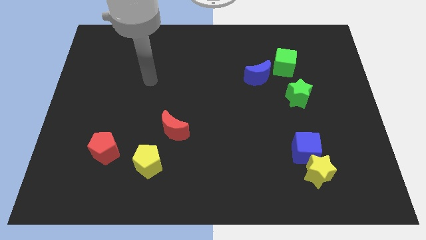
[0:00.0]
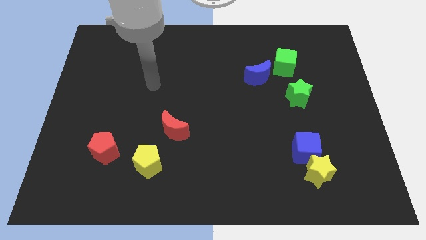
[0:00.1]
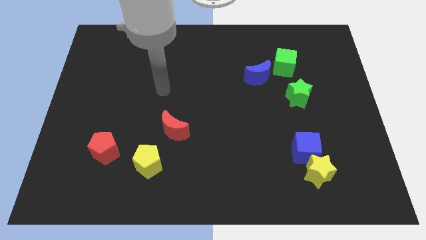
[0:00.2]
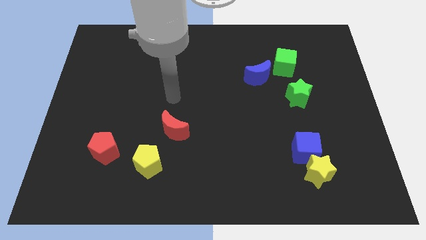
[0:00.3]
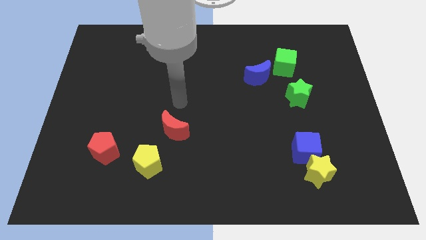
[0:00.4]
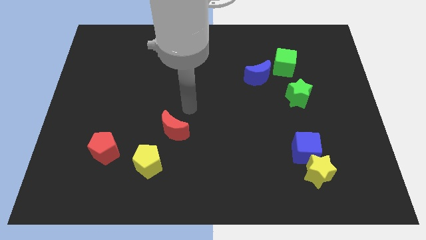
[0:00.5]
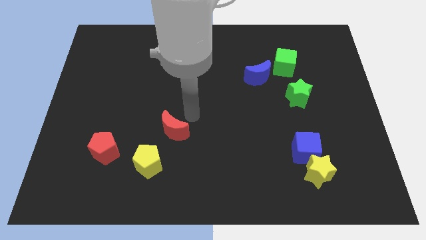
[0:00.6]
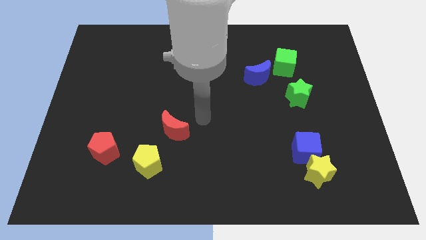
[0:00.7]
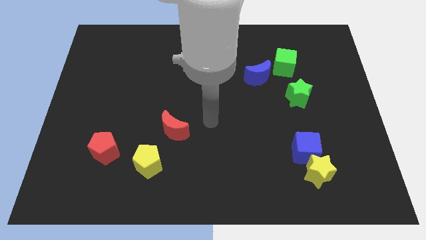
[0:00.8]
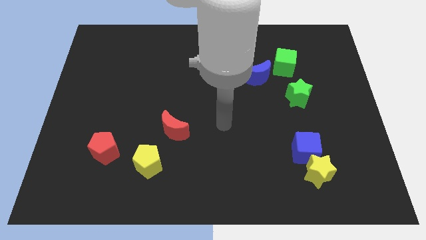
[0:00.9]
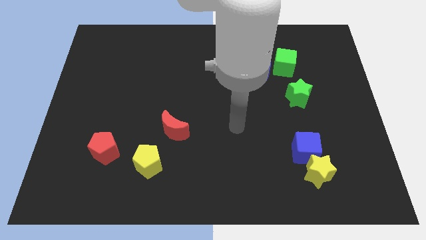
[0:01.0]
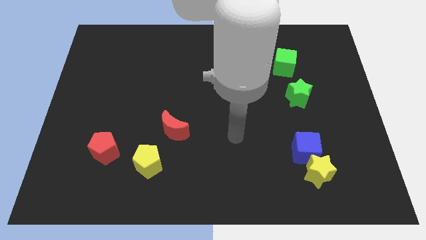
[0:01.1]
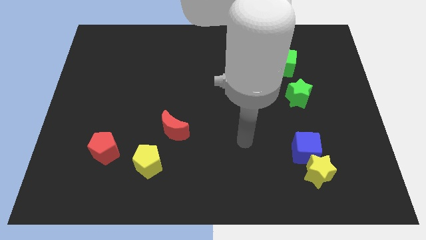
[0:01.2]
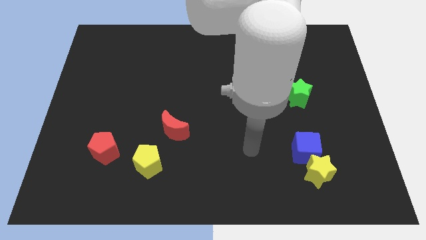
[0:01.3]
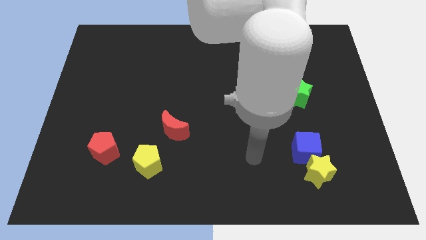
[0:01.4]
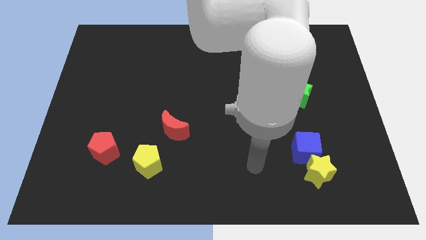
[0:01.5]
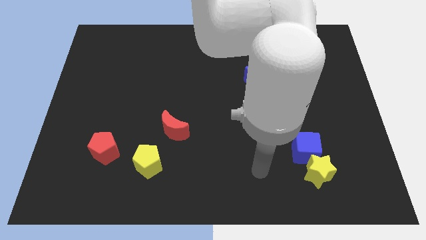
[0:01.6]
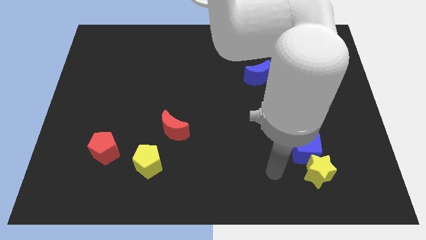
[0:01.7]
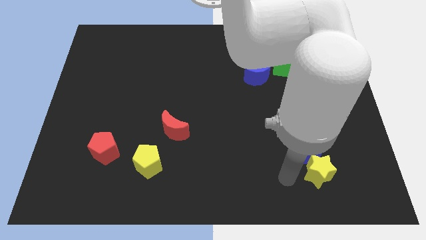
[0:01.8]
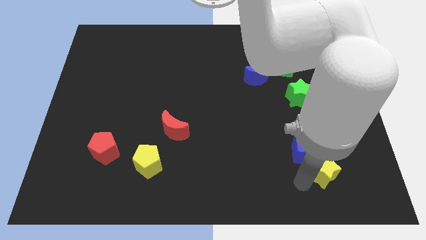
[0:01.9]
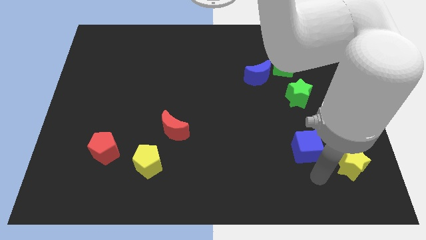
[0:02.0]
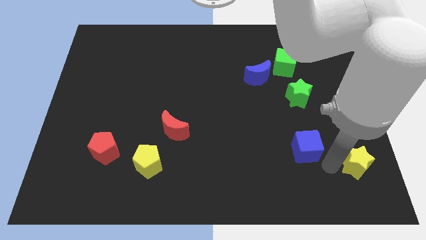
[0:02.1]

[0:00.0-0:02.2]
pull the blue cube apart from the yellow star

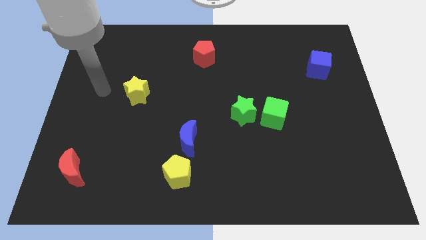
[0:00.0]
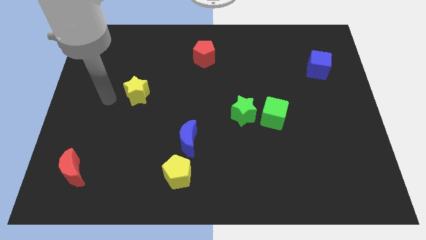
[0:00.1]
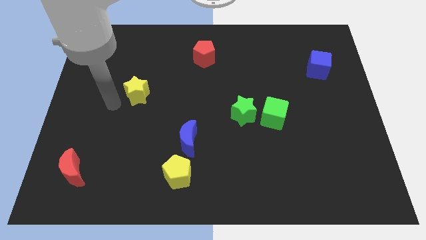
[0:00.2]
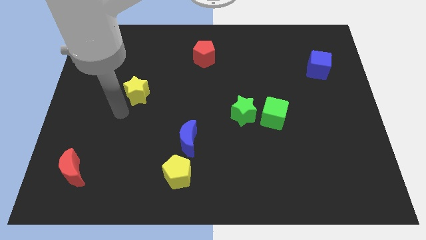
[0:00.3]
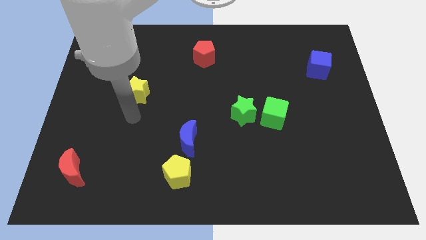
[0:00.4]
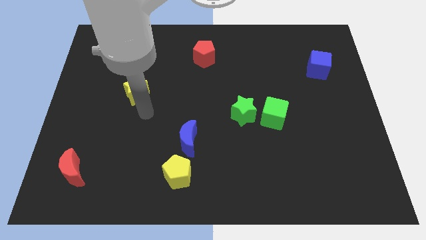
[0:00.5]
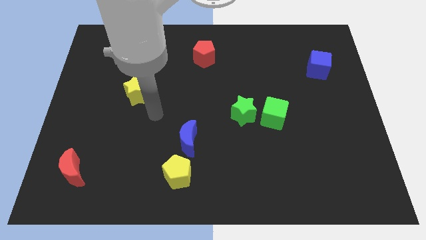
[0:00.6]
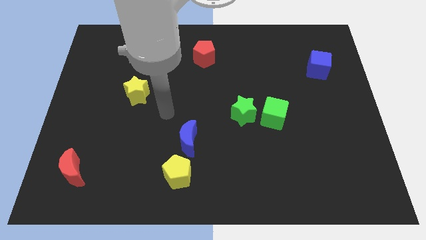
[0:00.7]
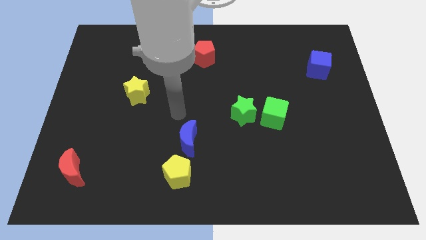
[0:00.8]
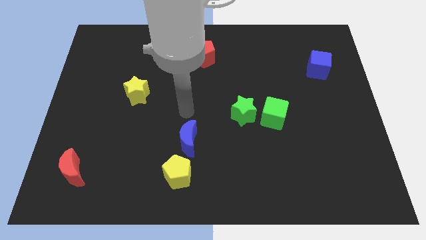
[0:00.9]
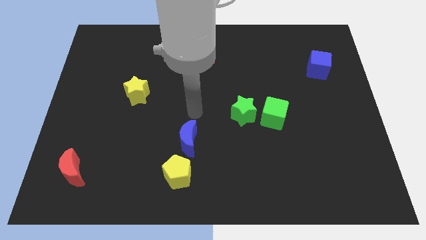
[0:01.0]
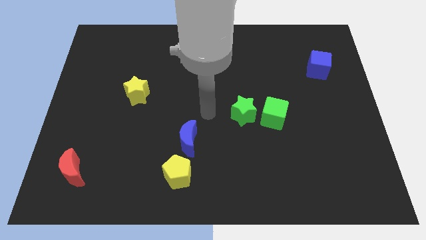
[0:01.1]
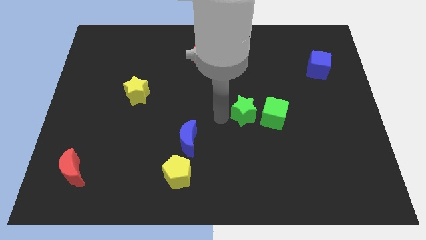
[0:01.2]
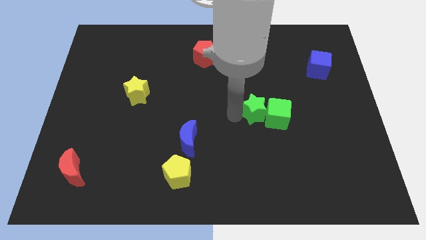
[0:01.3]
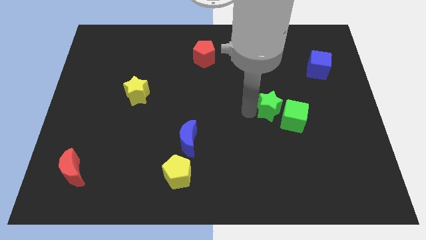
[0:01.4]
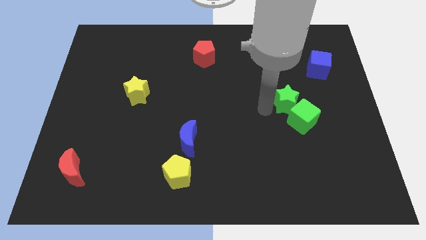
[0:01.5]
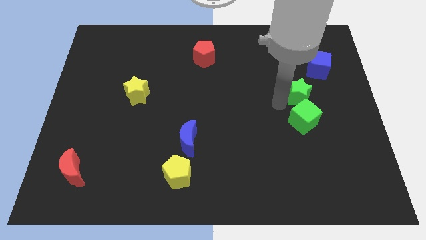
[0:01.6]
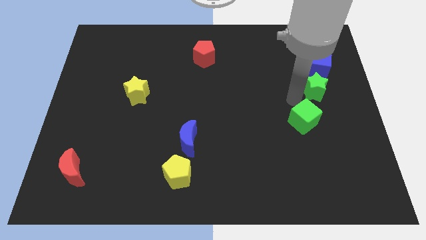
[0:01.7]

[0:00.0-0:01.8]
move the green cube away from the green star

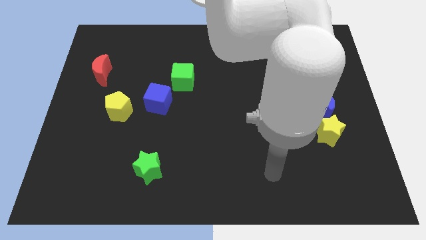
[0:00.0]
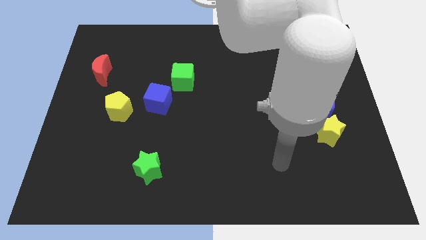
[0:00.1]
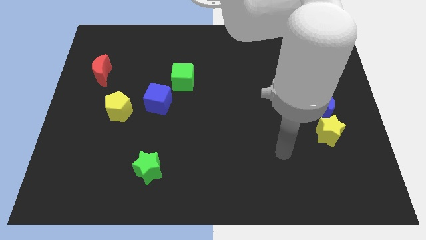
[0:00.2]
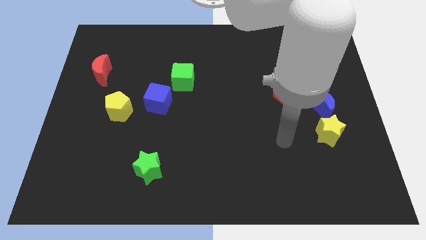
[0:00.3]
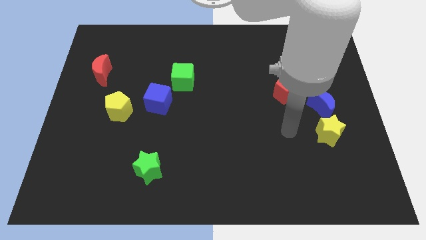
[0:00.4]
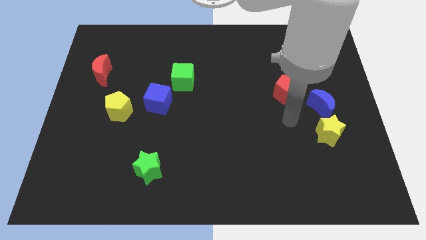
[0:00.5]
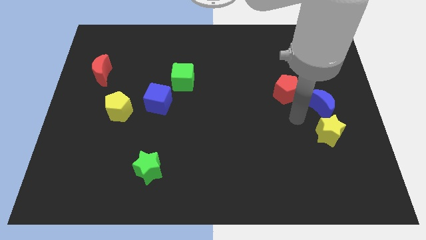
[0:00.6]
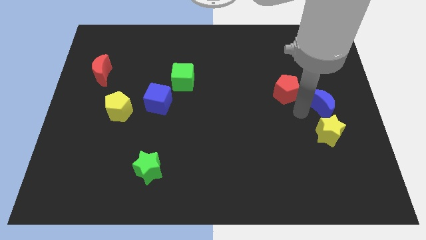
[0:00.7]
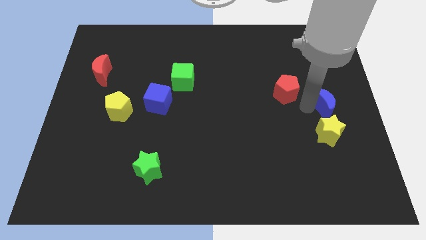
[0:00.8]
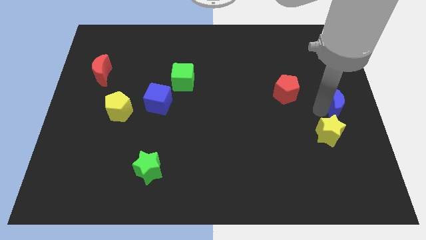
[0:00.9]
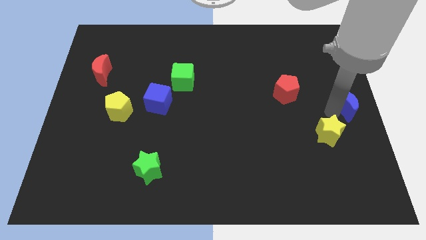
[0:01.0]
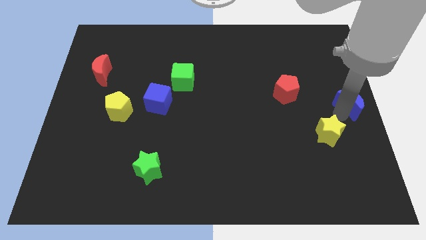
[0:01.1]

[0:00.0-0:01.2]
separate the yellow star from the blue moon

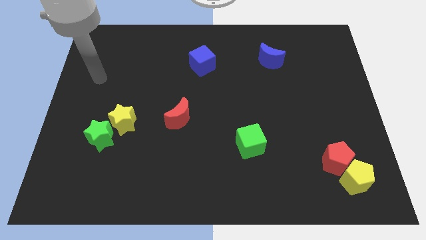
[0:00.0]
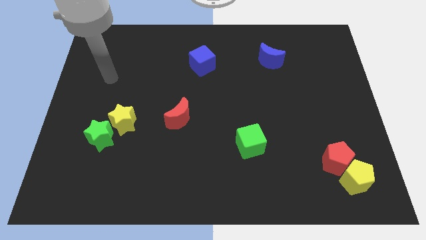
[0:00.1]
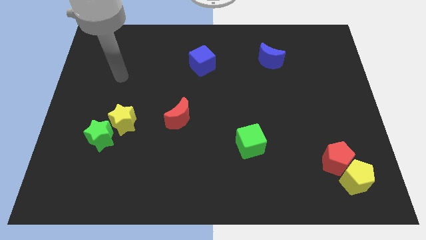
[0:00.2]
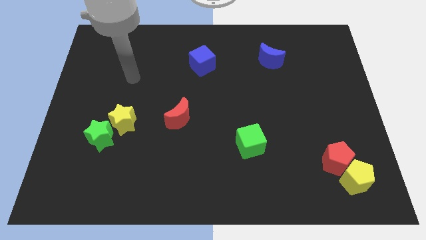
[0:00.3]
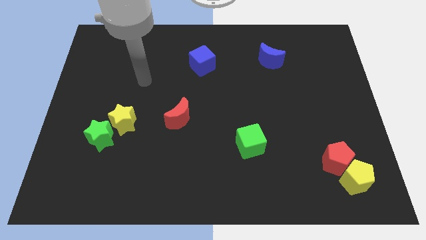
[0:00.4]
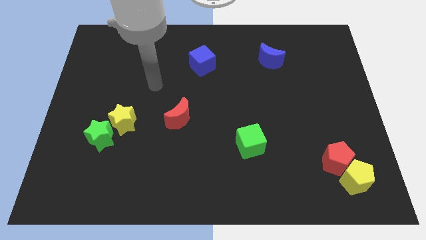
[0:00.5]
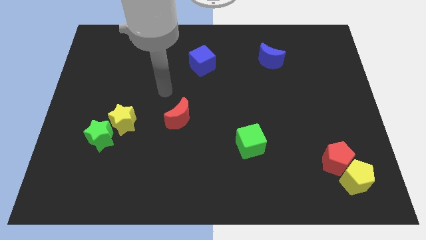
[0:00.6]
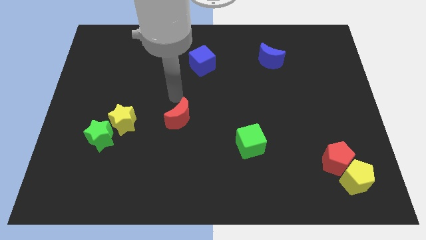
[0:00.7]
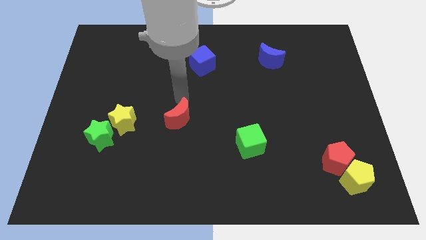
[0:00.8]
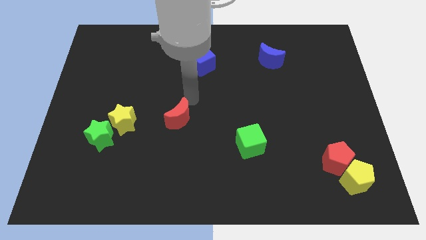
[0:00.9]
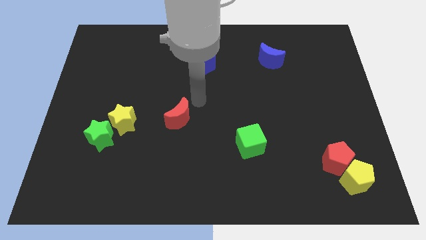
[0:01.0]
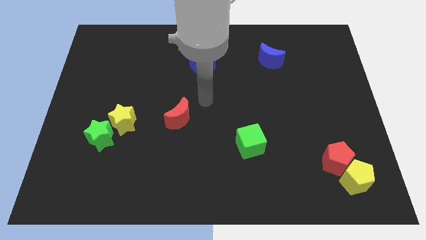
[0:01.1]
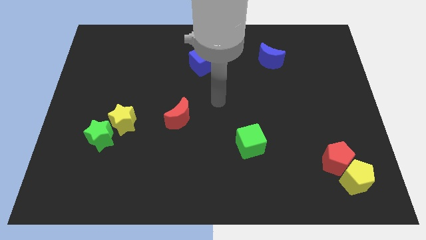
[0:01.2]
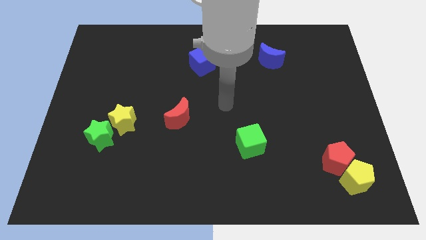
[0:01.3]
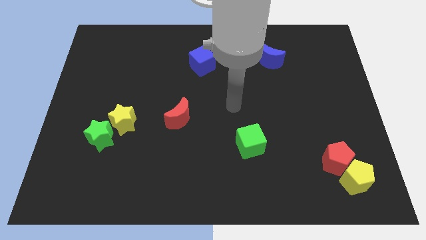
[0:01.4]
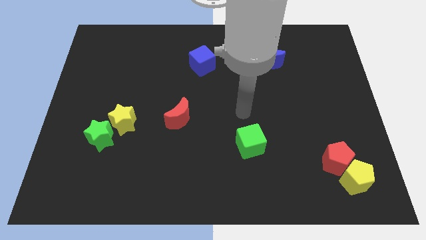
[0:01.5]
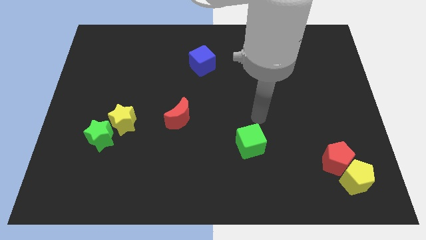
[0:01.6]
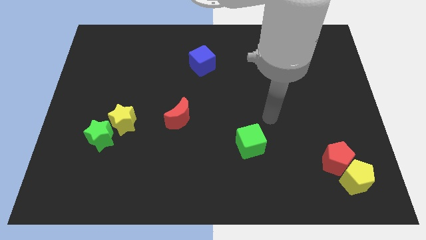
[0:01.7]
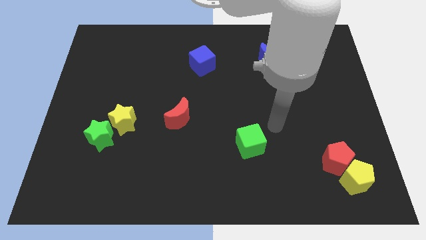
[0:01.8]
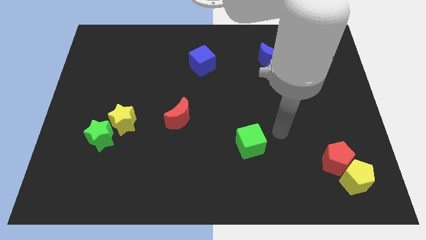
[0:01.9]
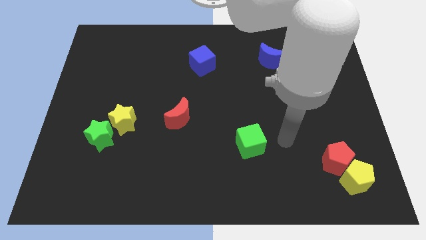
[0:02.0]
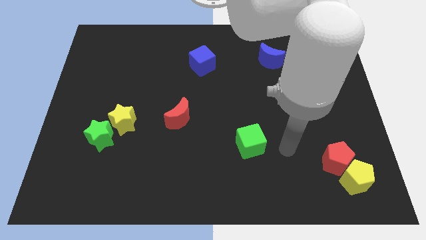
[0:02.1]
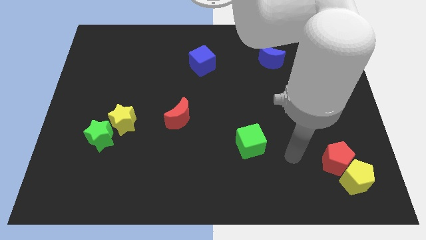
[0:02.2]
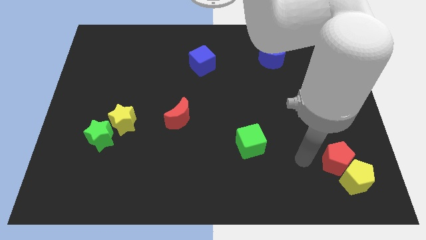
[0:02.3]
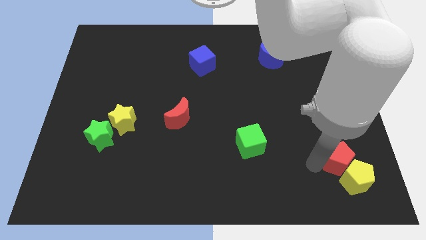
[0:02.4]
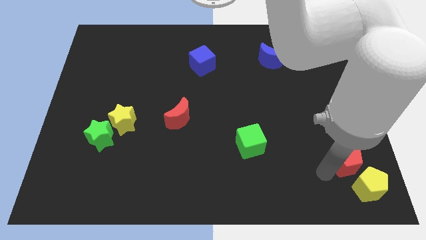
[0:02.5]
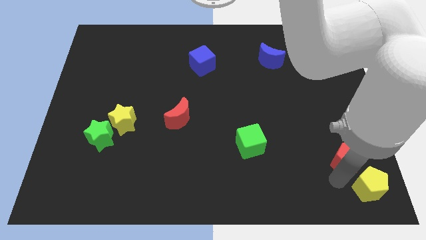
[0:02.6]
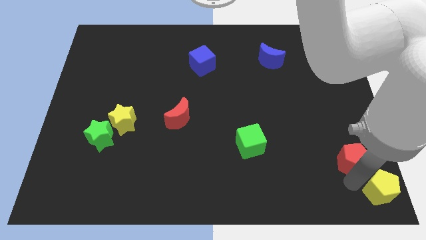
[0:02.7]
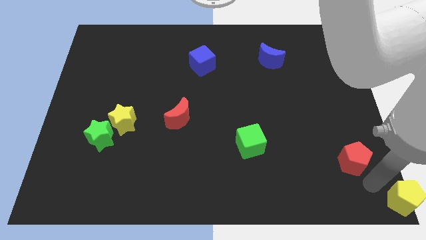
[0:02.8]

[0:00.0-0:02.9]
separate the red pentagon from the yellow pentagon

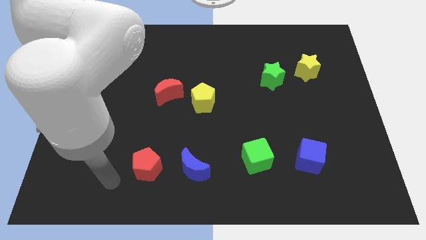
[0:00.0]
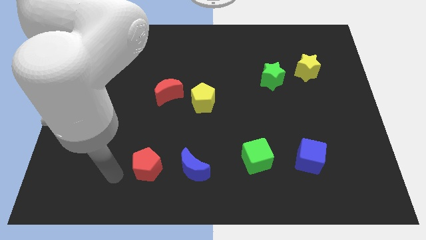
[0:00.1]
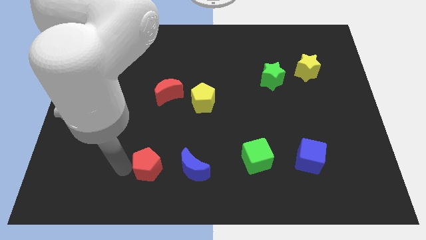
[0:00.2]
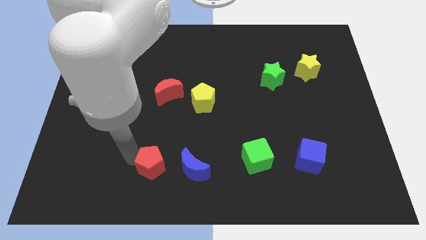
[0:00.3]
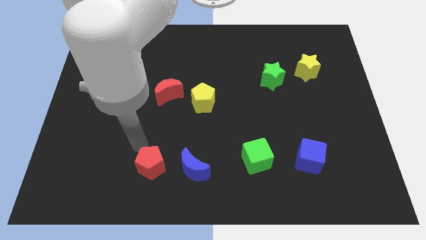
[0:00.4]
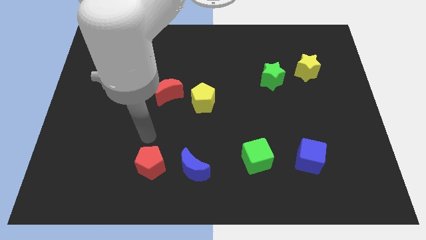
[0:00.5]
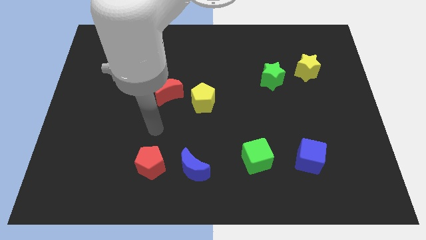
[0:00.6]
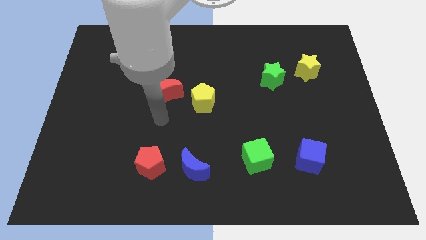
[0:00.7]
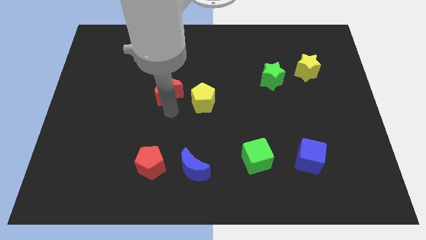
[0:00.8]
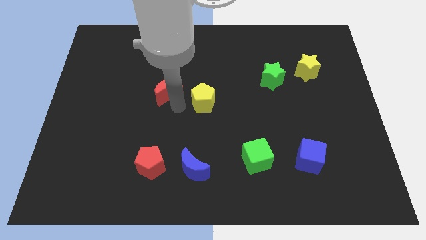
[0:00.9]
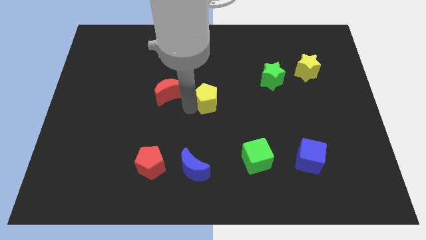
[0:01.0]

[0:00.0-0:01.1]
pull the red moon apart from the yellow pentagon
